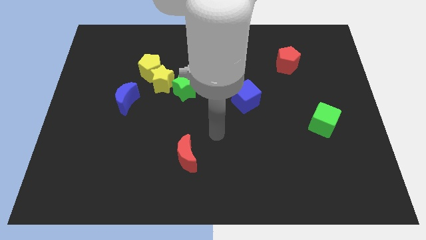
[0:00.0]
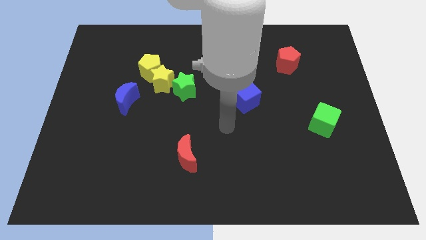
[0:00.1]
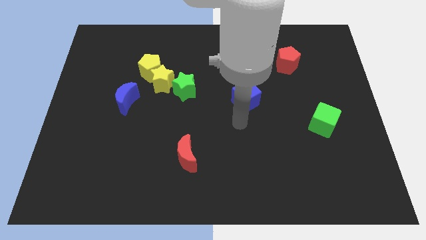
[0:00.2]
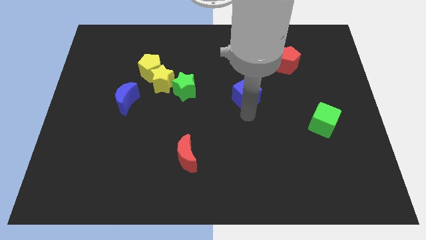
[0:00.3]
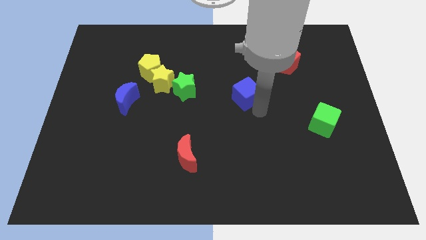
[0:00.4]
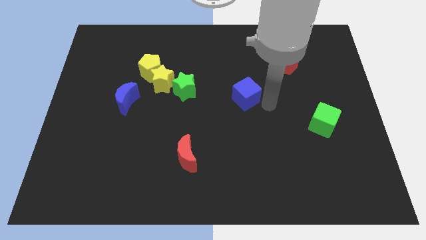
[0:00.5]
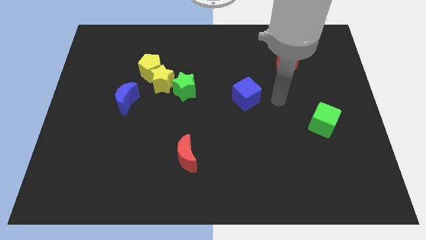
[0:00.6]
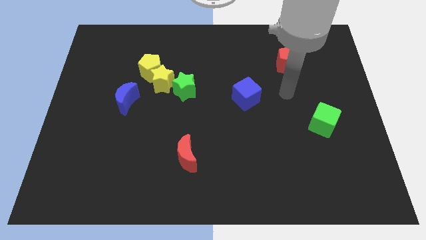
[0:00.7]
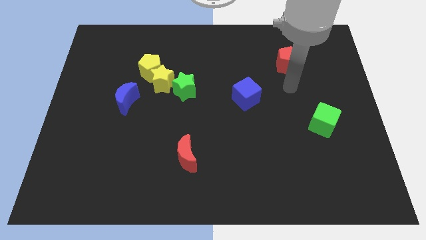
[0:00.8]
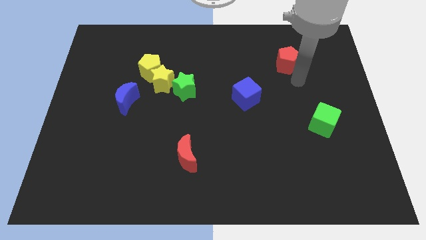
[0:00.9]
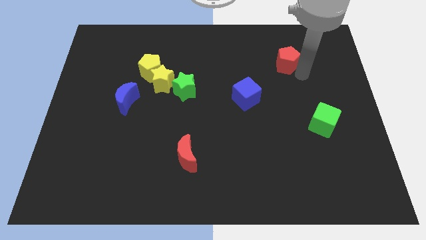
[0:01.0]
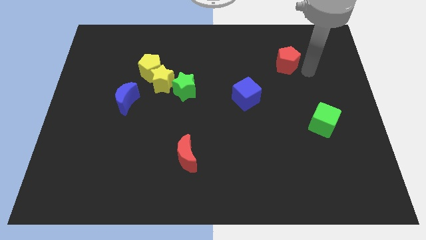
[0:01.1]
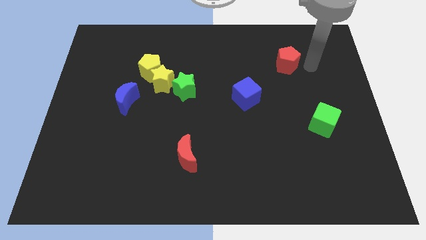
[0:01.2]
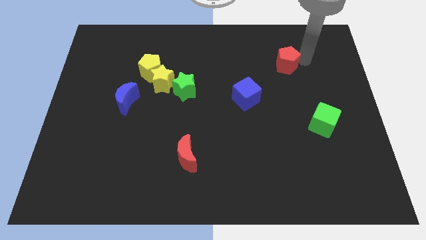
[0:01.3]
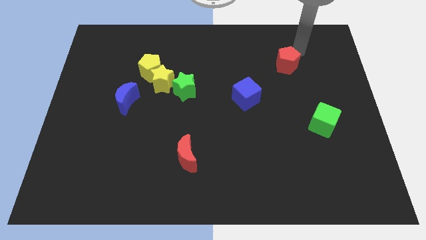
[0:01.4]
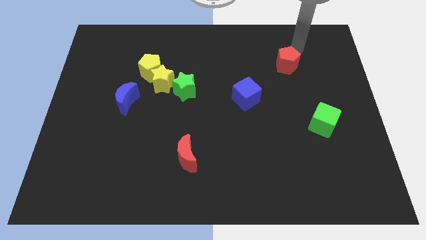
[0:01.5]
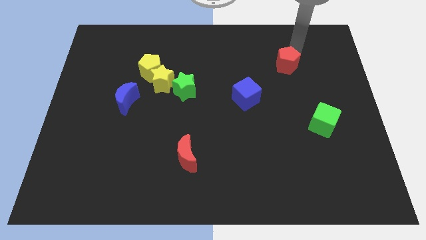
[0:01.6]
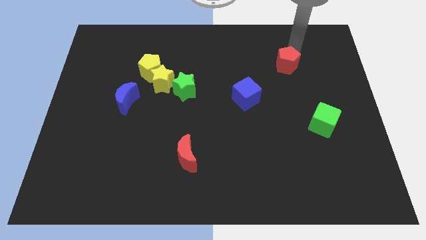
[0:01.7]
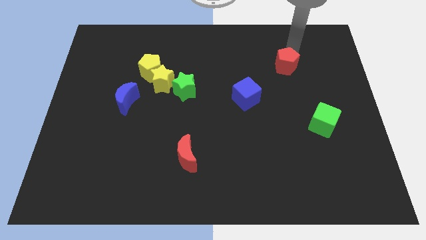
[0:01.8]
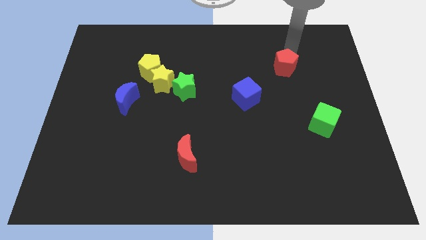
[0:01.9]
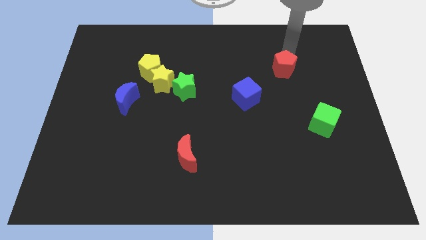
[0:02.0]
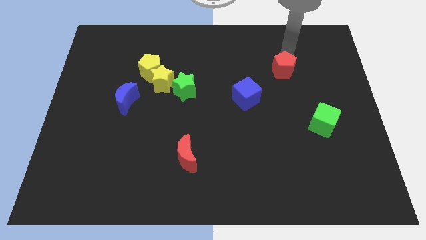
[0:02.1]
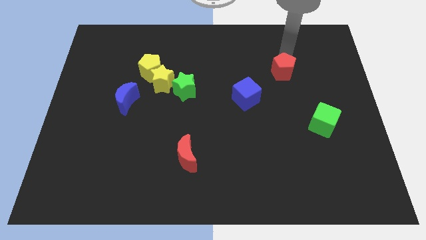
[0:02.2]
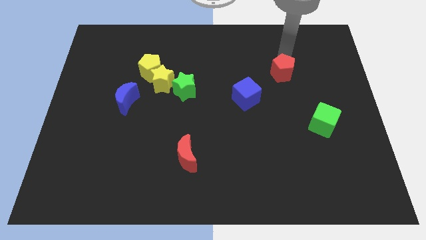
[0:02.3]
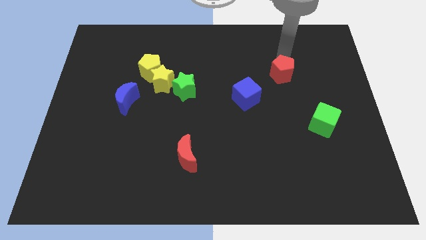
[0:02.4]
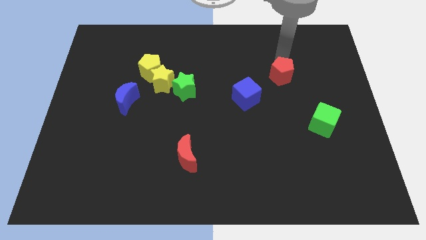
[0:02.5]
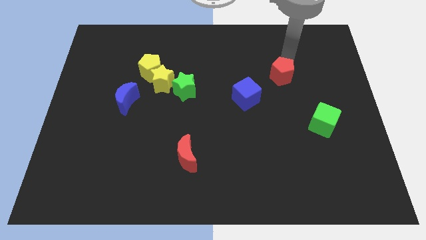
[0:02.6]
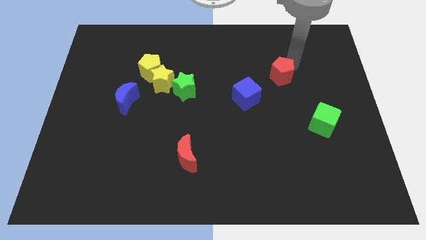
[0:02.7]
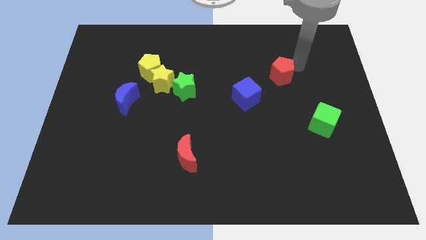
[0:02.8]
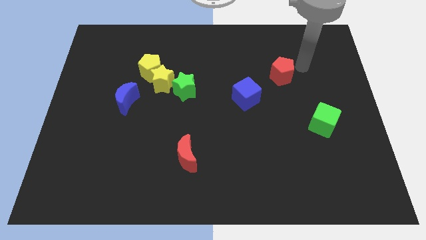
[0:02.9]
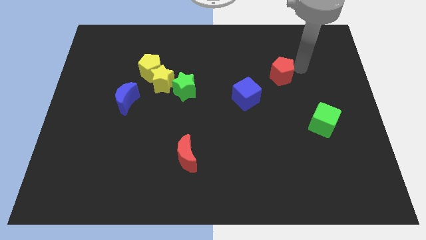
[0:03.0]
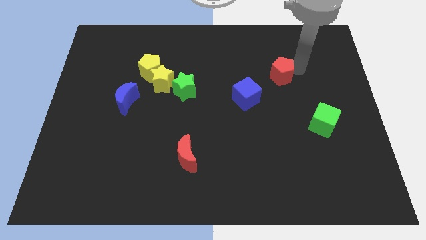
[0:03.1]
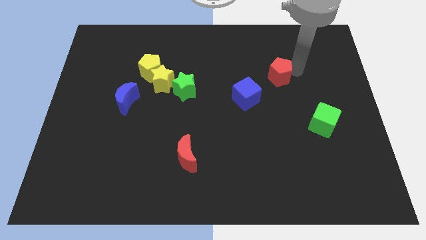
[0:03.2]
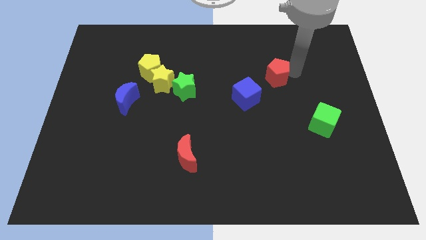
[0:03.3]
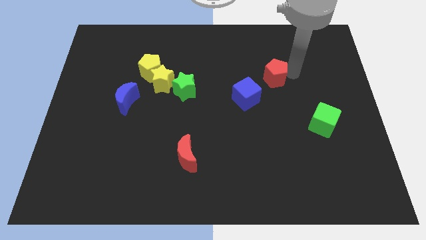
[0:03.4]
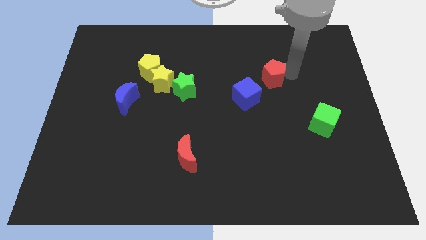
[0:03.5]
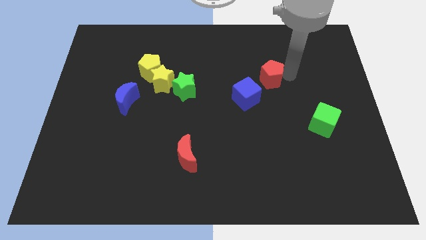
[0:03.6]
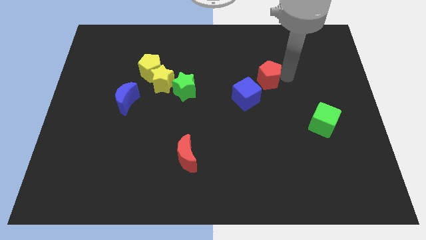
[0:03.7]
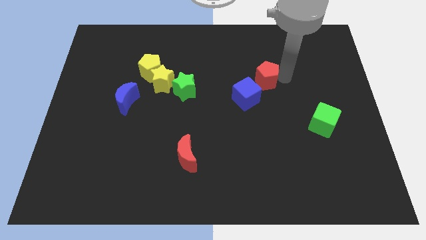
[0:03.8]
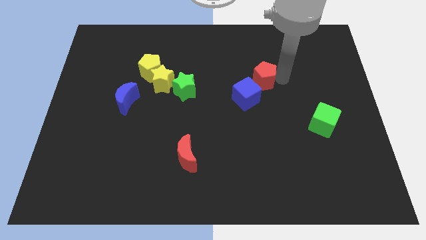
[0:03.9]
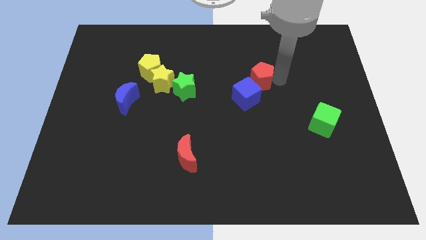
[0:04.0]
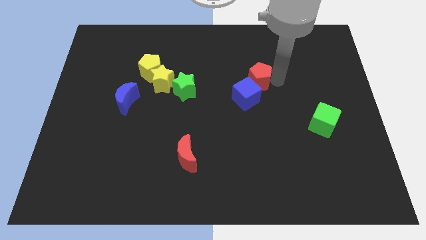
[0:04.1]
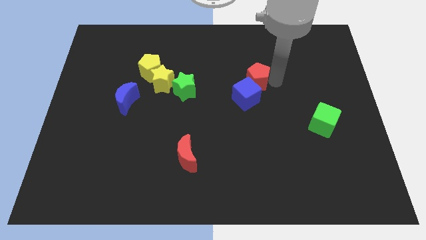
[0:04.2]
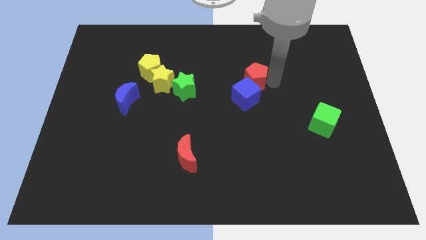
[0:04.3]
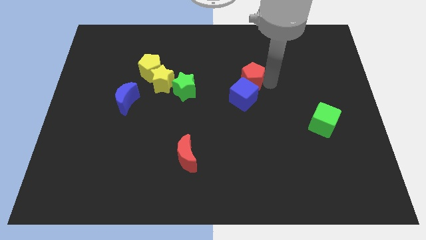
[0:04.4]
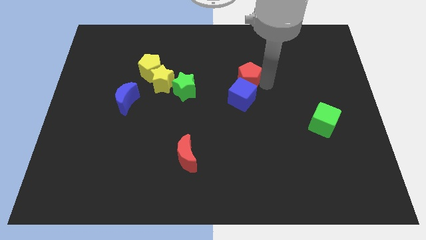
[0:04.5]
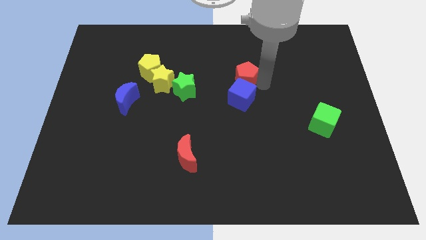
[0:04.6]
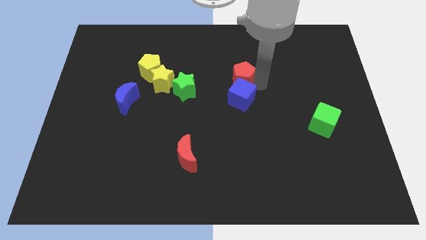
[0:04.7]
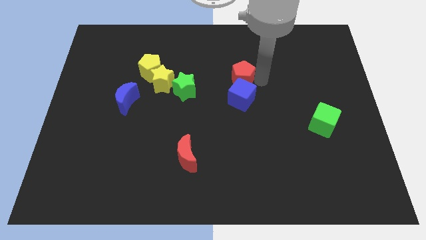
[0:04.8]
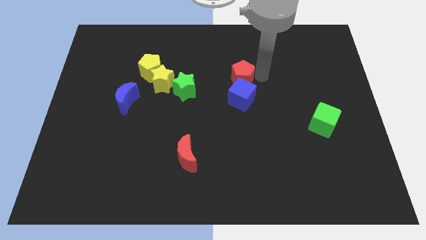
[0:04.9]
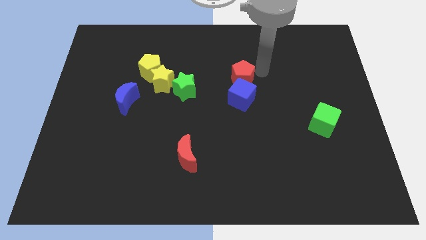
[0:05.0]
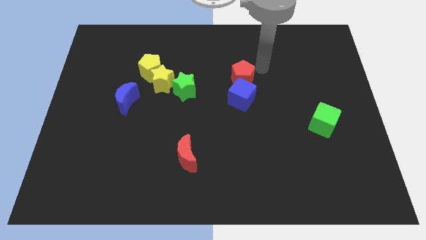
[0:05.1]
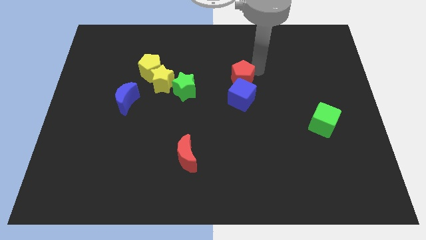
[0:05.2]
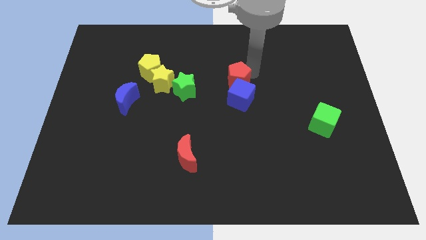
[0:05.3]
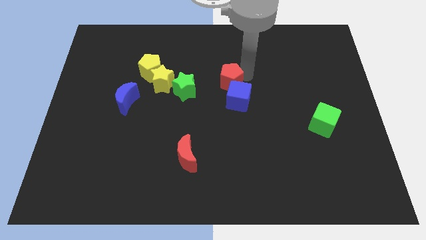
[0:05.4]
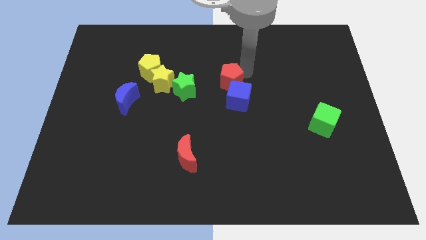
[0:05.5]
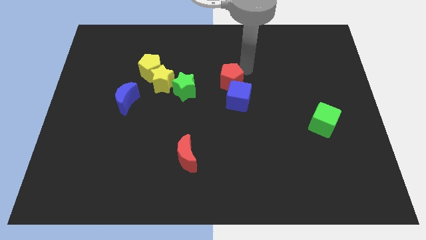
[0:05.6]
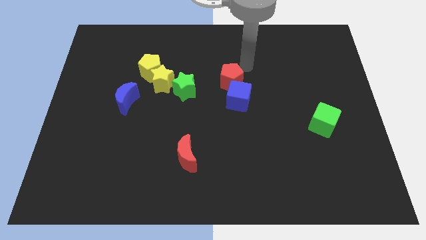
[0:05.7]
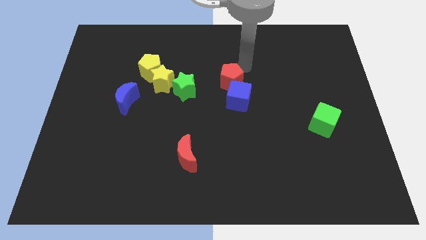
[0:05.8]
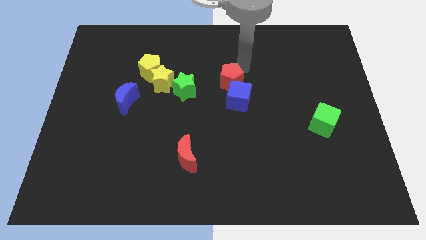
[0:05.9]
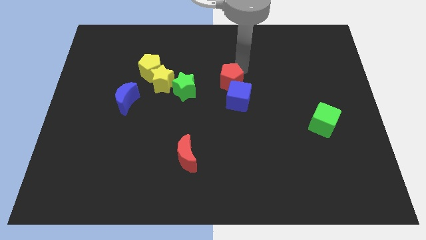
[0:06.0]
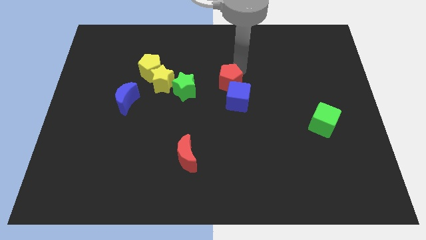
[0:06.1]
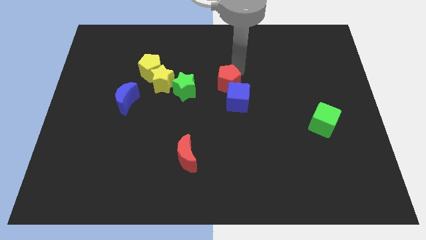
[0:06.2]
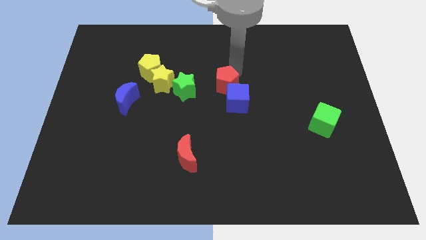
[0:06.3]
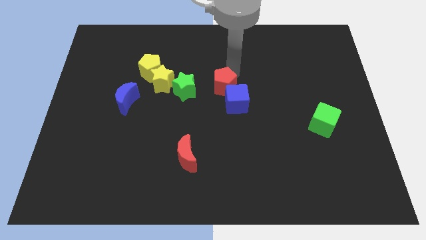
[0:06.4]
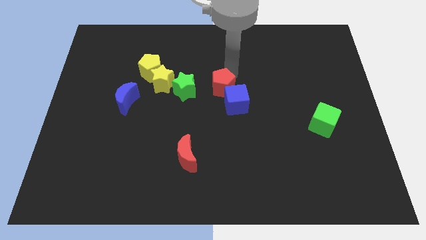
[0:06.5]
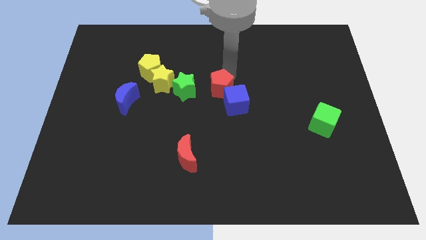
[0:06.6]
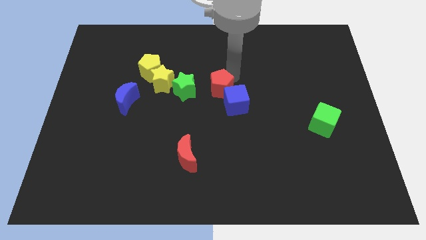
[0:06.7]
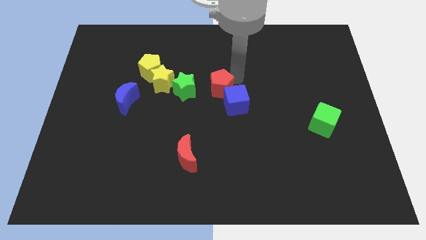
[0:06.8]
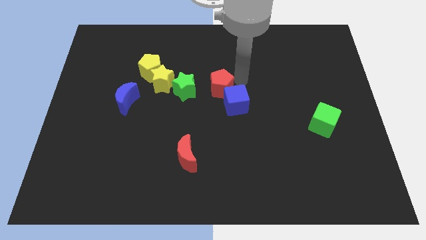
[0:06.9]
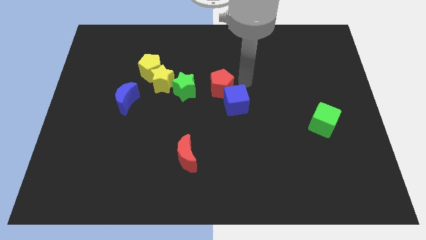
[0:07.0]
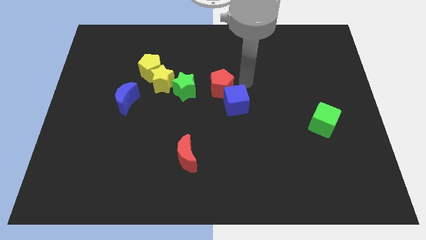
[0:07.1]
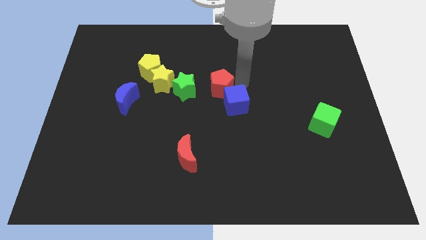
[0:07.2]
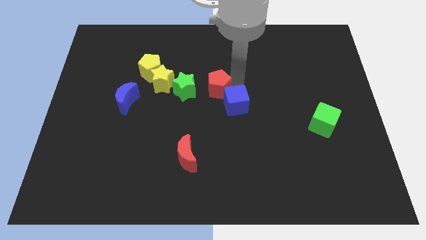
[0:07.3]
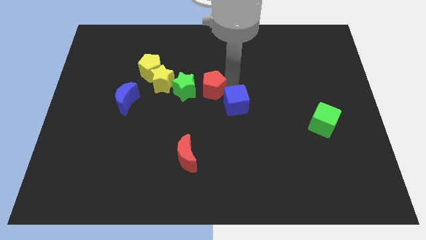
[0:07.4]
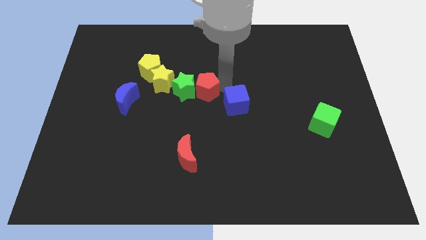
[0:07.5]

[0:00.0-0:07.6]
move the red pentagon to the green star
